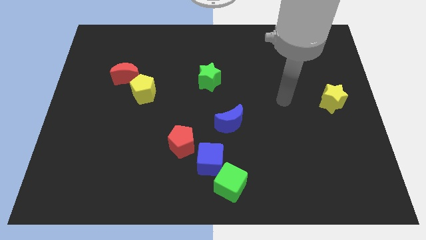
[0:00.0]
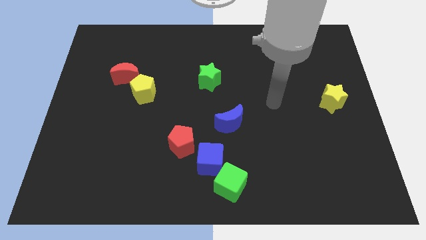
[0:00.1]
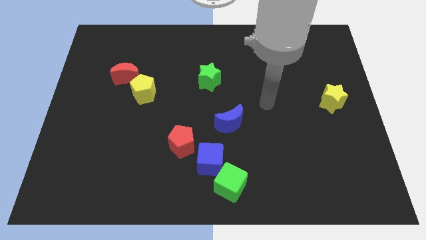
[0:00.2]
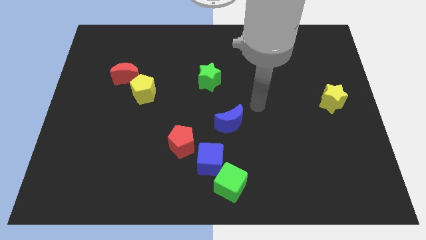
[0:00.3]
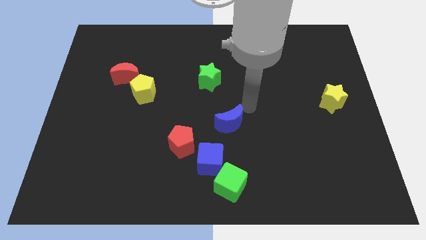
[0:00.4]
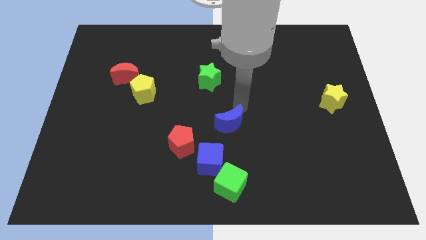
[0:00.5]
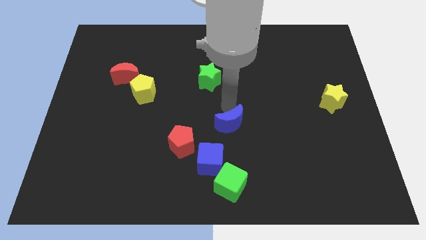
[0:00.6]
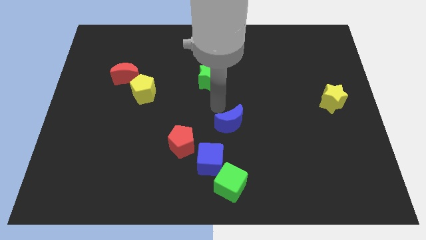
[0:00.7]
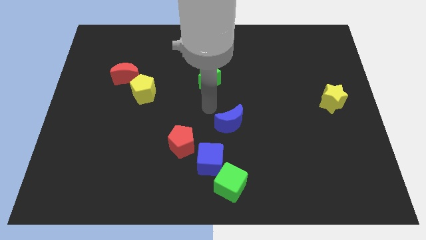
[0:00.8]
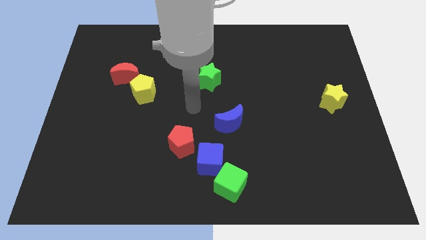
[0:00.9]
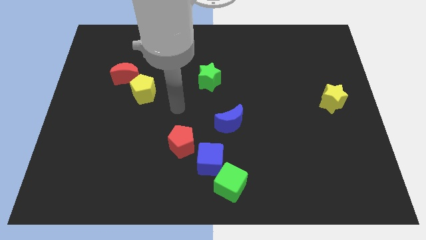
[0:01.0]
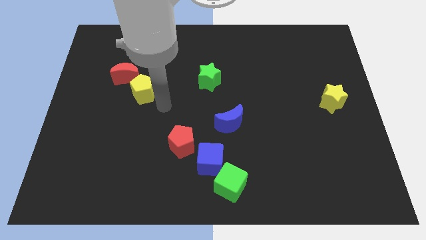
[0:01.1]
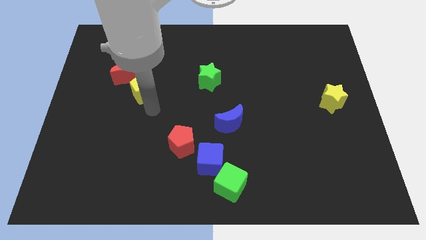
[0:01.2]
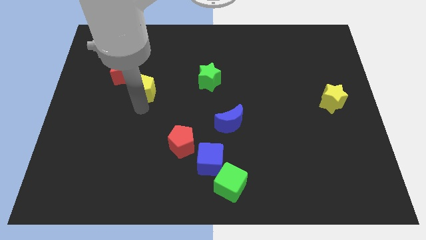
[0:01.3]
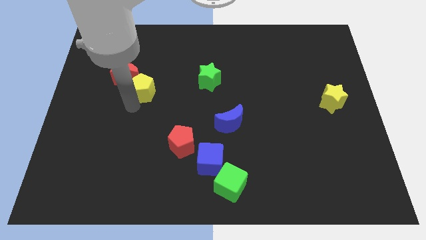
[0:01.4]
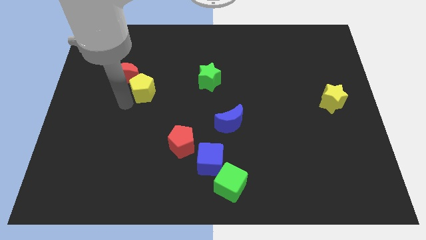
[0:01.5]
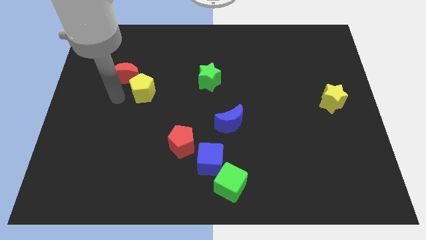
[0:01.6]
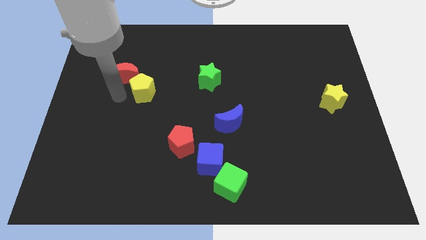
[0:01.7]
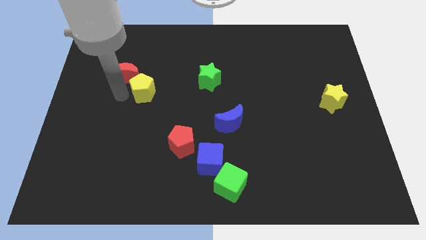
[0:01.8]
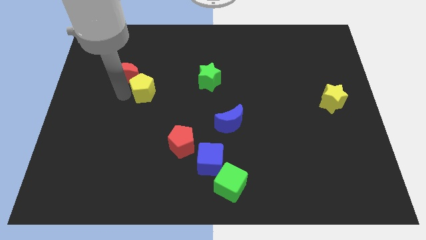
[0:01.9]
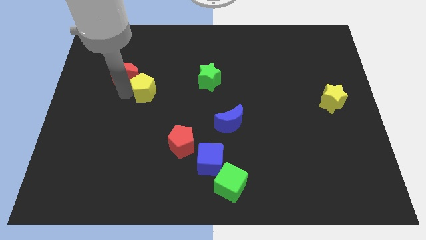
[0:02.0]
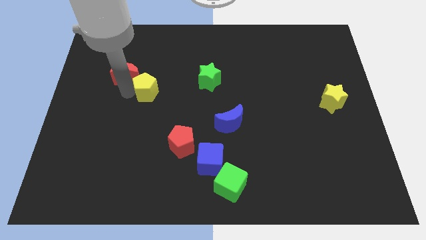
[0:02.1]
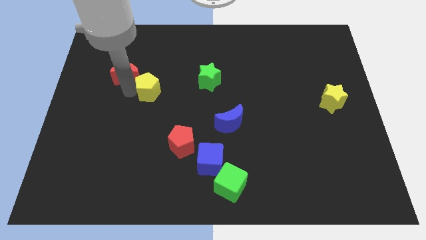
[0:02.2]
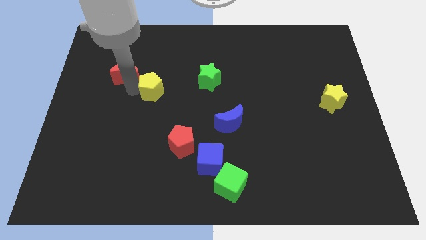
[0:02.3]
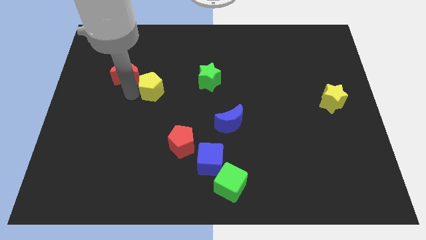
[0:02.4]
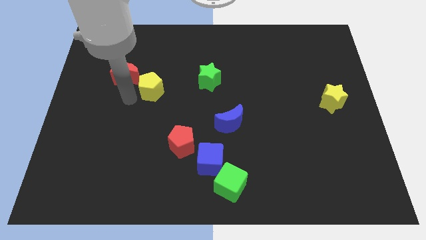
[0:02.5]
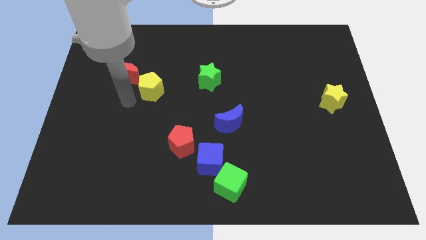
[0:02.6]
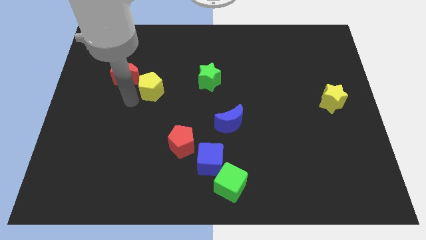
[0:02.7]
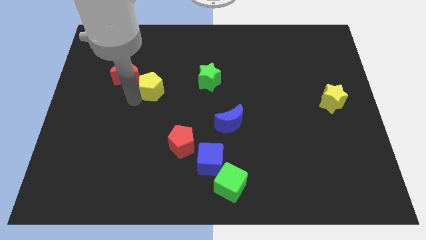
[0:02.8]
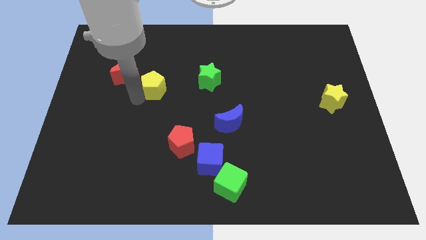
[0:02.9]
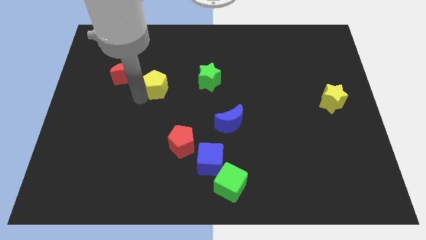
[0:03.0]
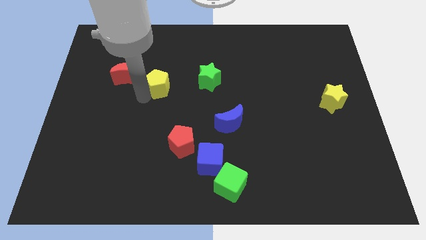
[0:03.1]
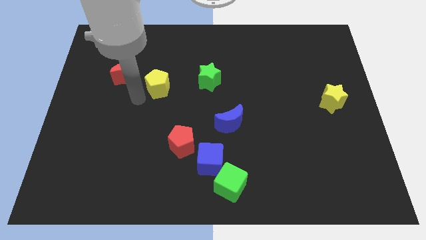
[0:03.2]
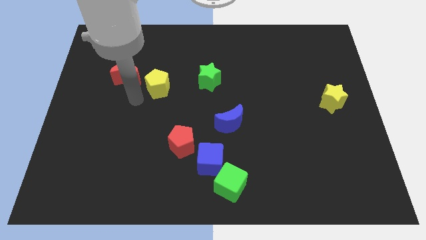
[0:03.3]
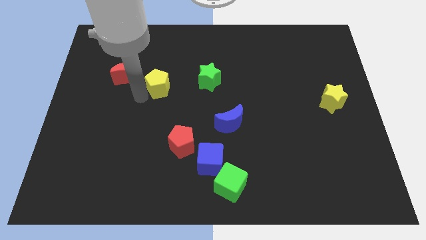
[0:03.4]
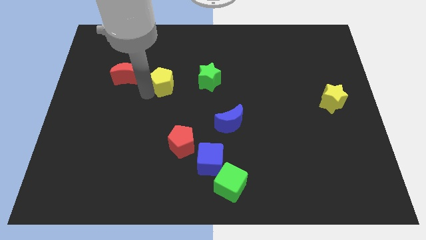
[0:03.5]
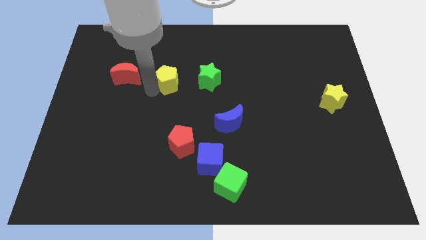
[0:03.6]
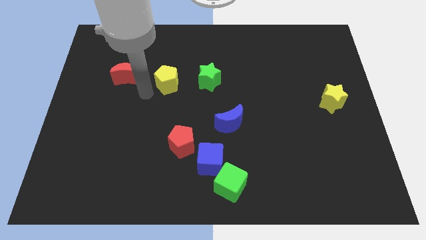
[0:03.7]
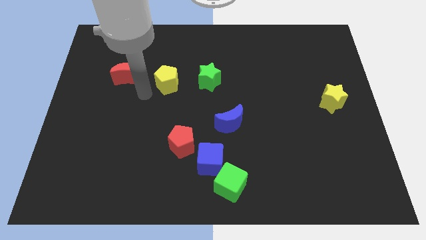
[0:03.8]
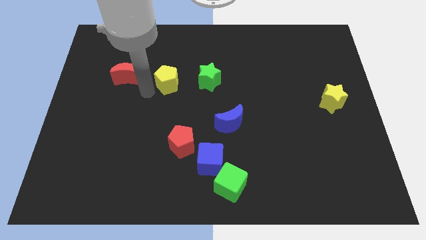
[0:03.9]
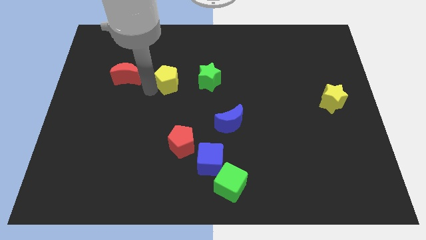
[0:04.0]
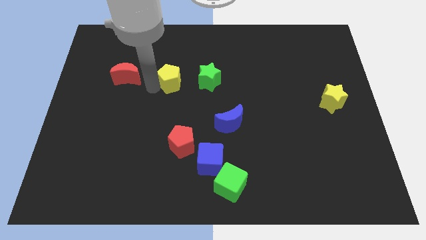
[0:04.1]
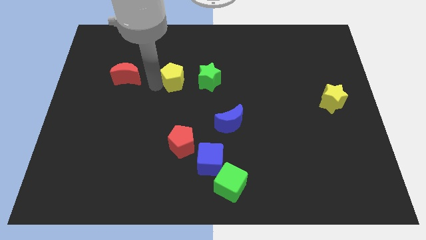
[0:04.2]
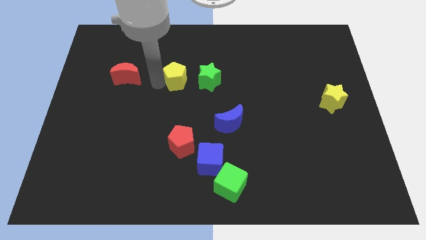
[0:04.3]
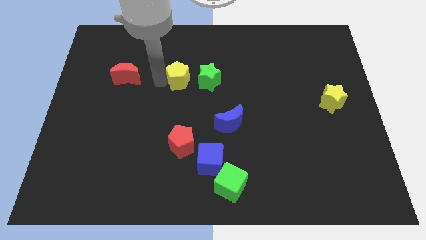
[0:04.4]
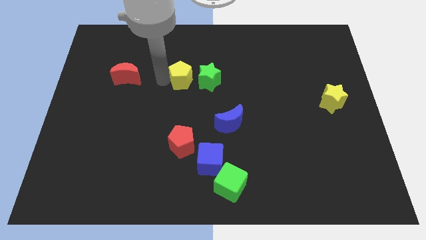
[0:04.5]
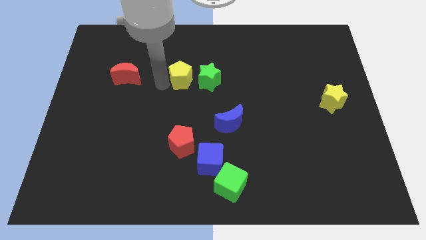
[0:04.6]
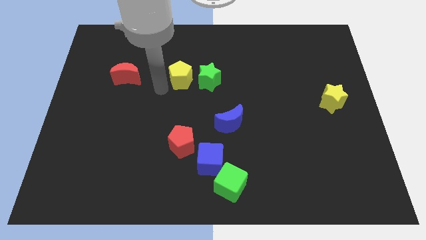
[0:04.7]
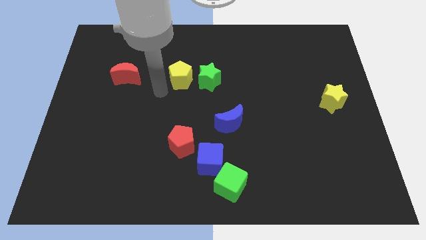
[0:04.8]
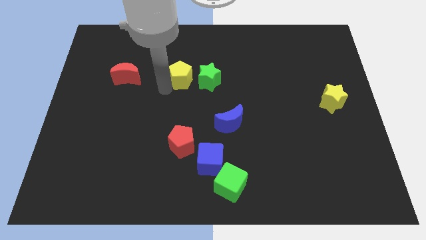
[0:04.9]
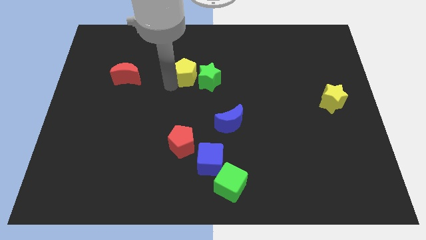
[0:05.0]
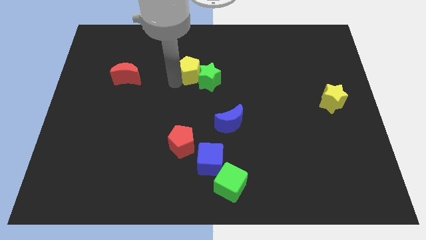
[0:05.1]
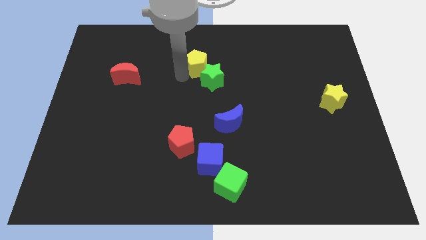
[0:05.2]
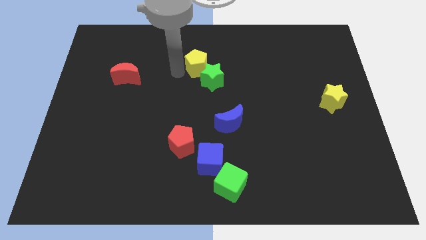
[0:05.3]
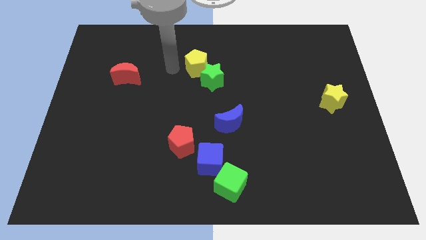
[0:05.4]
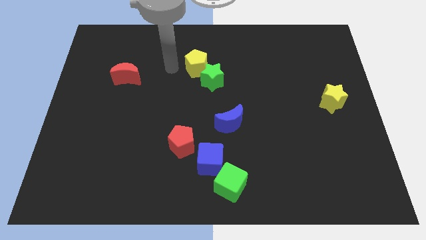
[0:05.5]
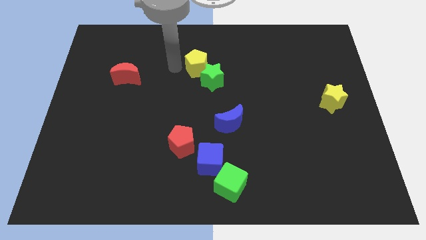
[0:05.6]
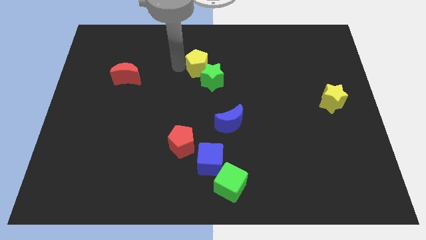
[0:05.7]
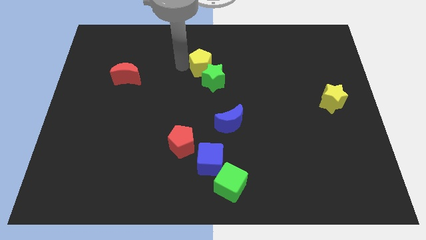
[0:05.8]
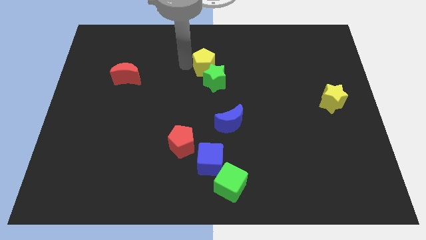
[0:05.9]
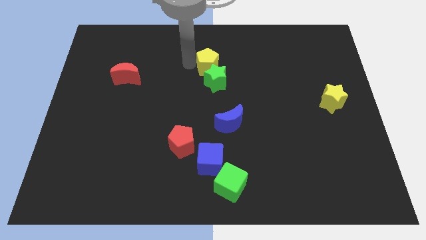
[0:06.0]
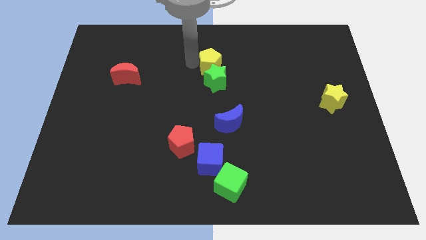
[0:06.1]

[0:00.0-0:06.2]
put the yellow pentagon to the top right side of the green star
